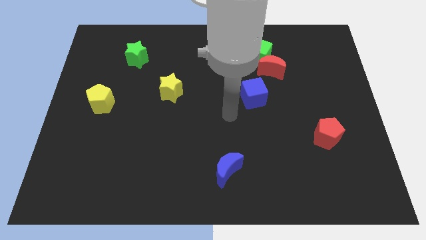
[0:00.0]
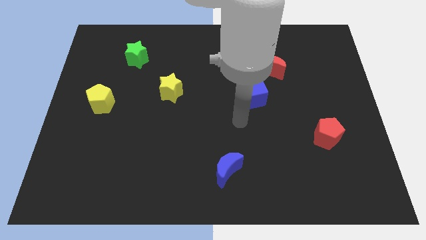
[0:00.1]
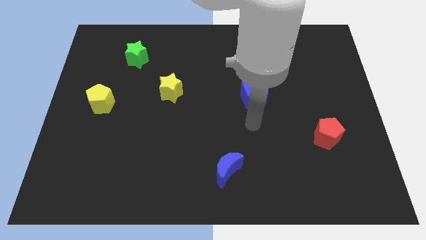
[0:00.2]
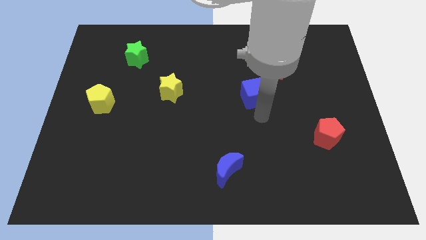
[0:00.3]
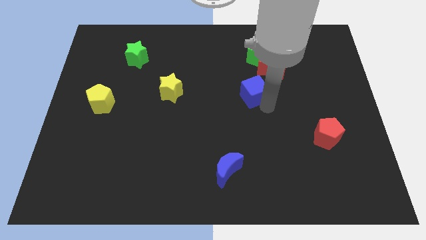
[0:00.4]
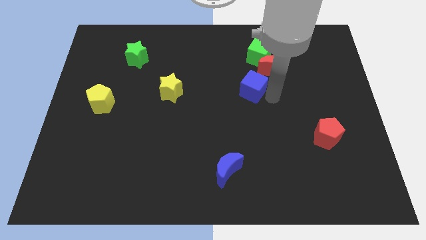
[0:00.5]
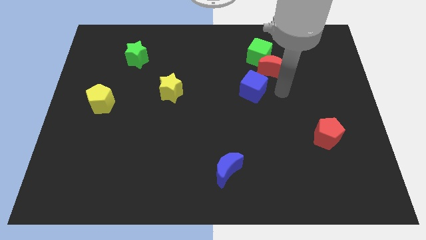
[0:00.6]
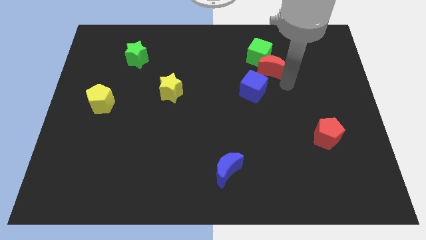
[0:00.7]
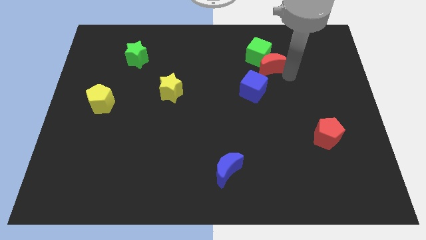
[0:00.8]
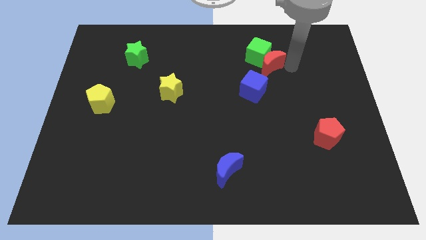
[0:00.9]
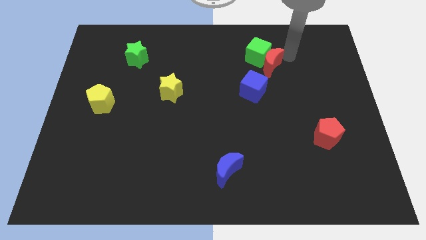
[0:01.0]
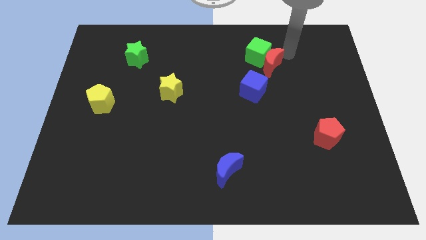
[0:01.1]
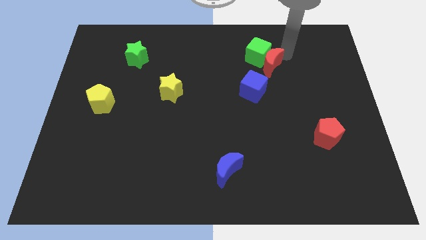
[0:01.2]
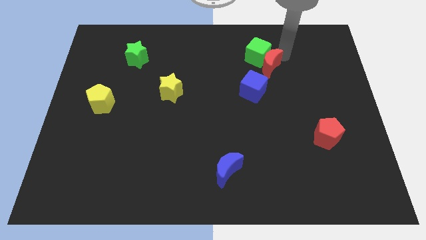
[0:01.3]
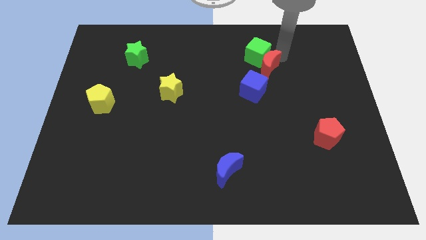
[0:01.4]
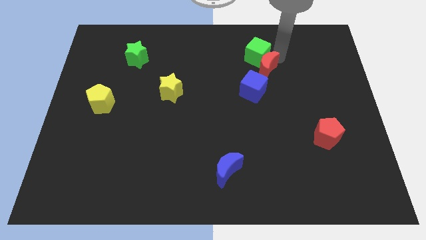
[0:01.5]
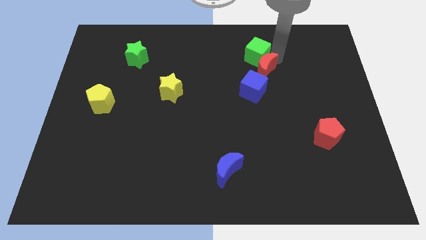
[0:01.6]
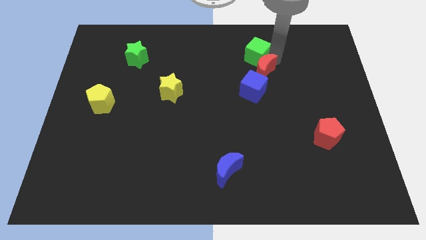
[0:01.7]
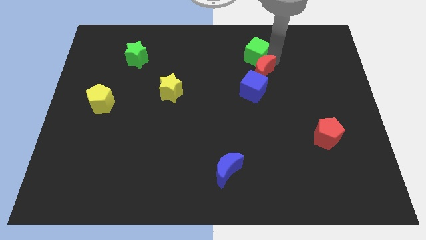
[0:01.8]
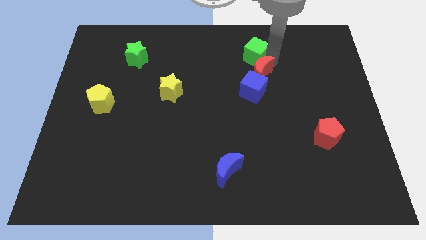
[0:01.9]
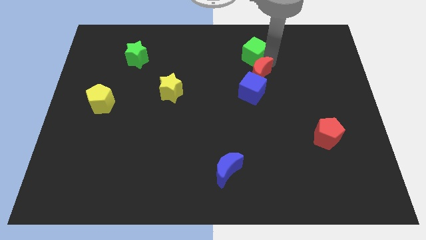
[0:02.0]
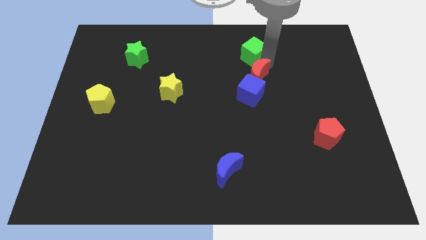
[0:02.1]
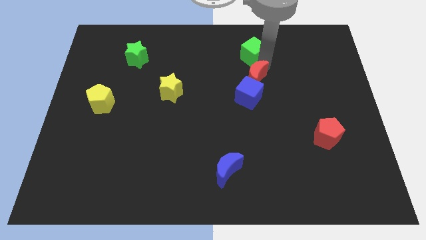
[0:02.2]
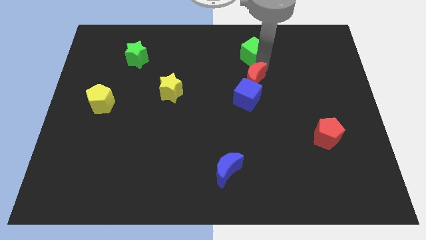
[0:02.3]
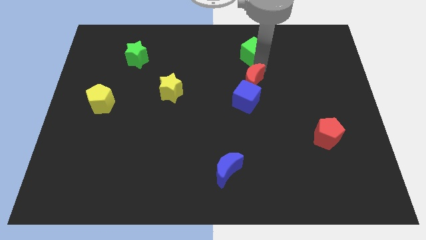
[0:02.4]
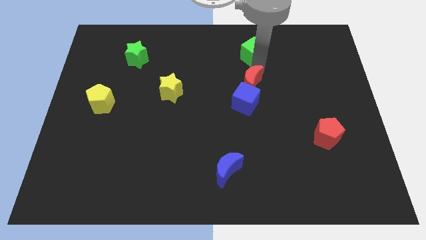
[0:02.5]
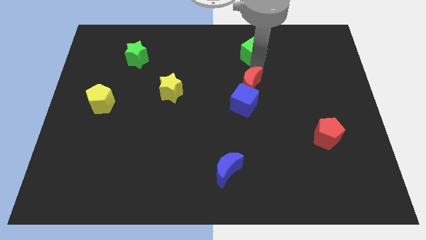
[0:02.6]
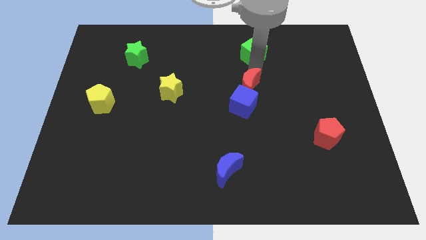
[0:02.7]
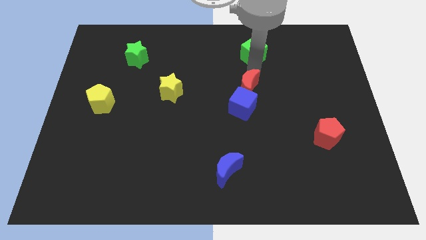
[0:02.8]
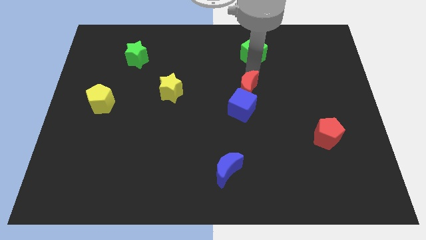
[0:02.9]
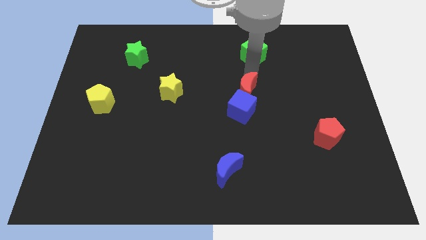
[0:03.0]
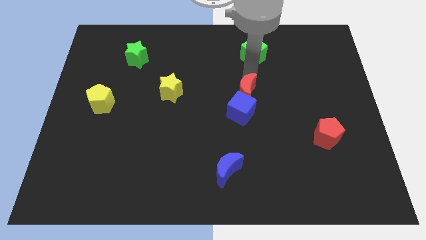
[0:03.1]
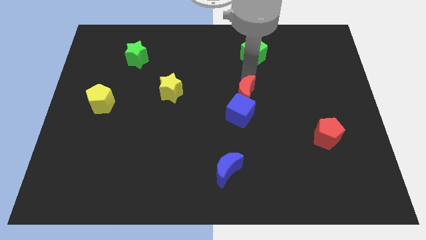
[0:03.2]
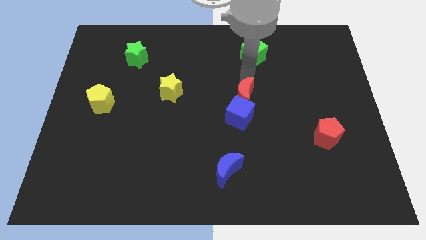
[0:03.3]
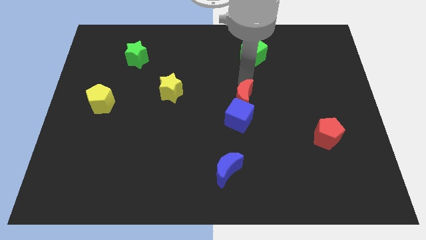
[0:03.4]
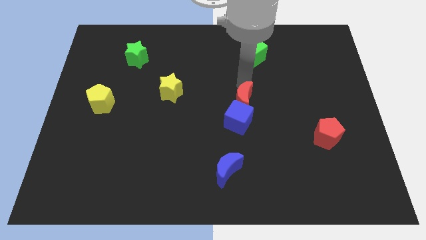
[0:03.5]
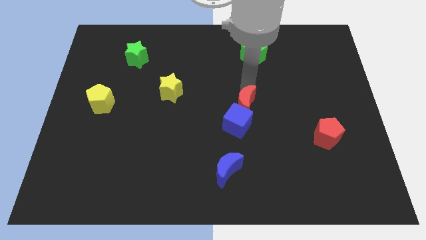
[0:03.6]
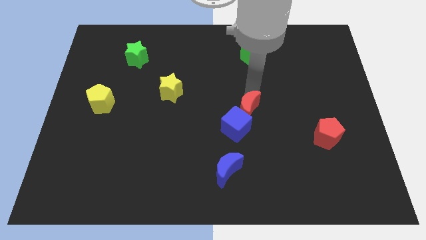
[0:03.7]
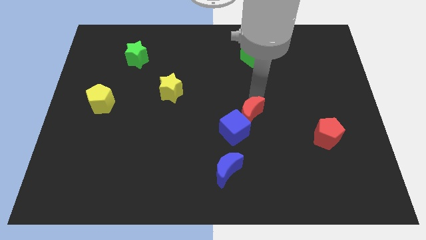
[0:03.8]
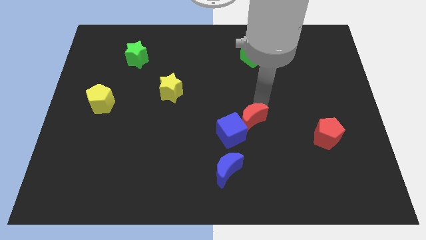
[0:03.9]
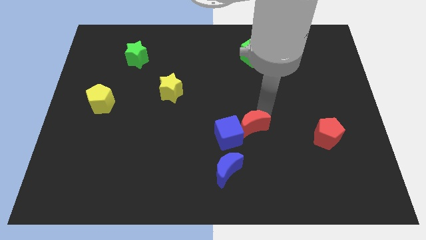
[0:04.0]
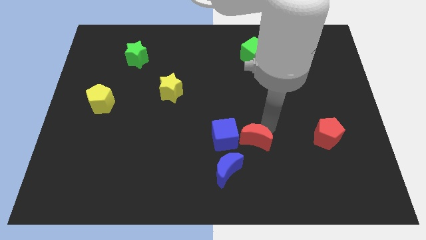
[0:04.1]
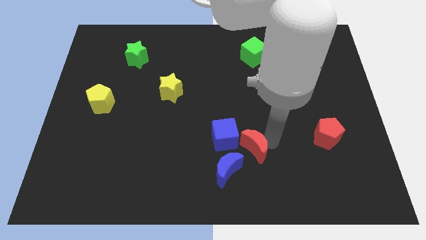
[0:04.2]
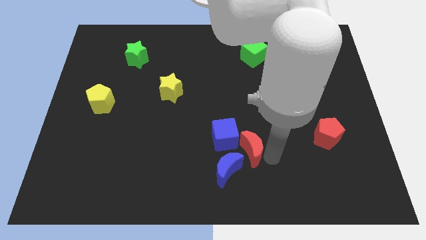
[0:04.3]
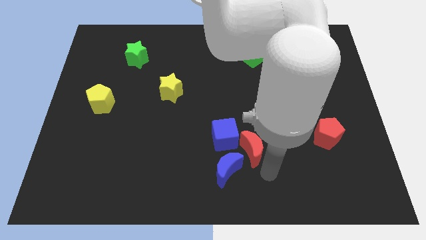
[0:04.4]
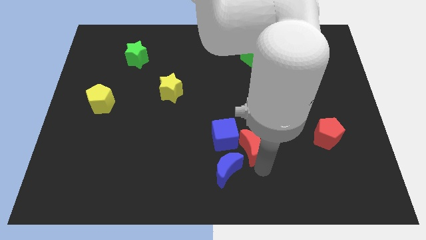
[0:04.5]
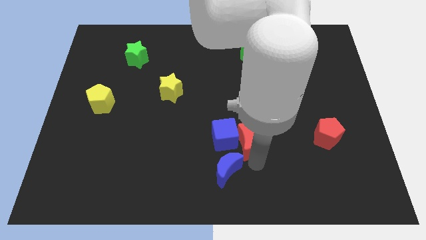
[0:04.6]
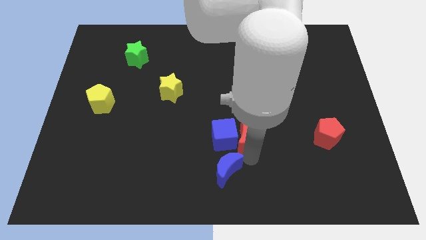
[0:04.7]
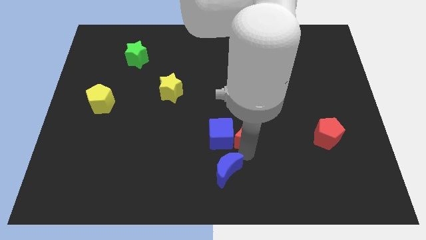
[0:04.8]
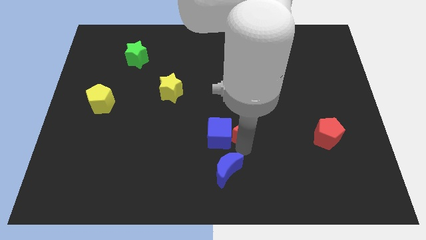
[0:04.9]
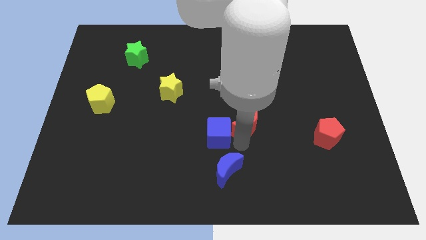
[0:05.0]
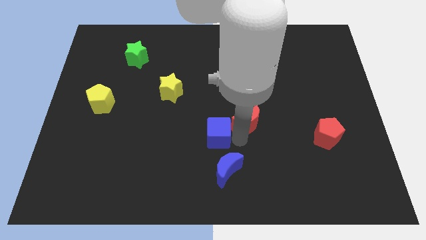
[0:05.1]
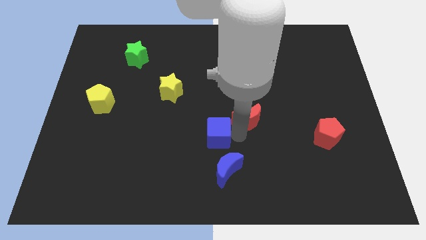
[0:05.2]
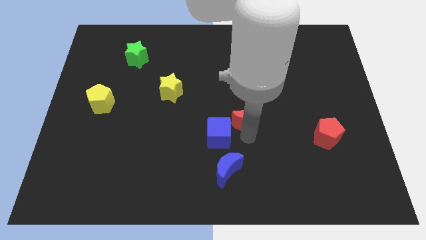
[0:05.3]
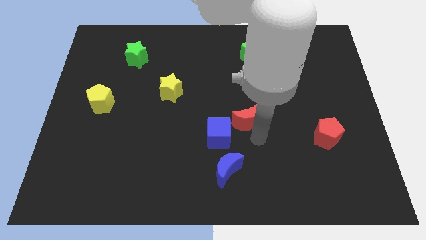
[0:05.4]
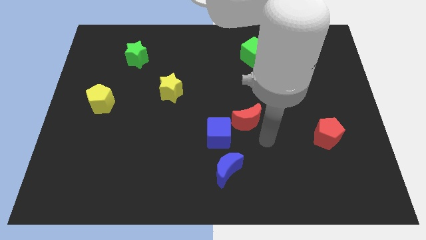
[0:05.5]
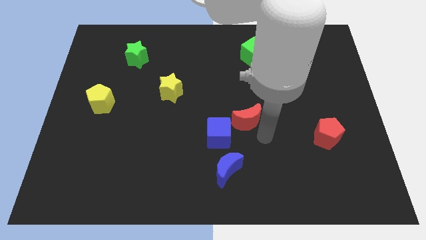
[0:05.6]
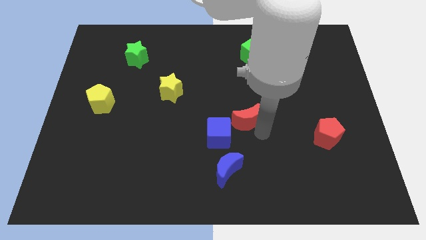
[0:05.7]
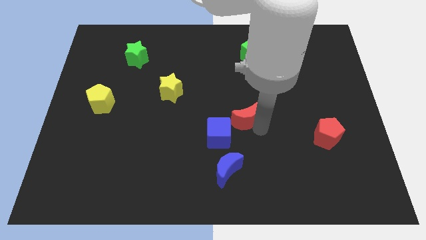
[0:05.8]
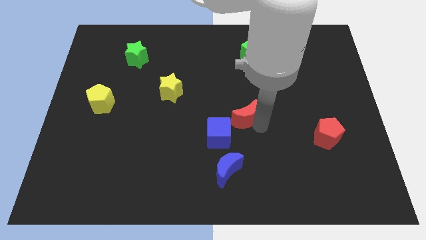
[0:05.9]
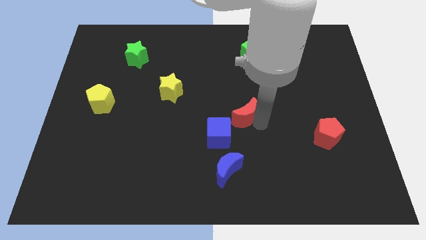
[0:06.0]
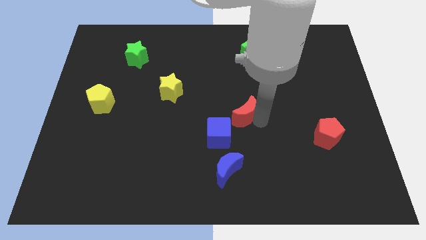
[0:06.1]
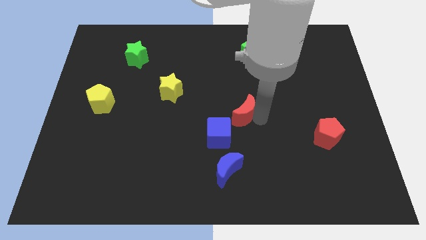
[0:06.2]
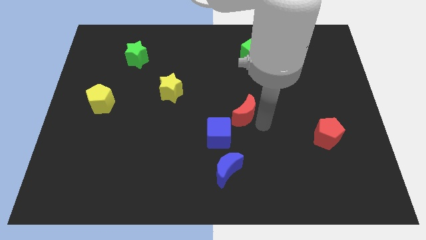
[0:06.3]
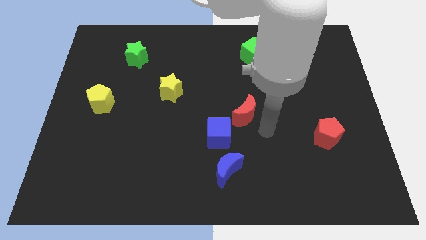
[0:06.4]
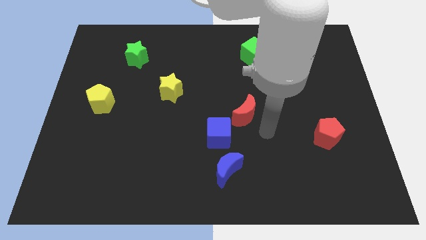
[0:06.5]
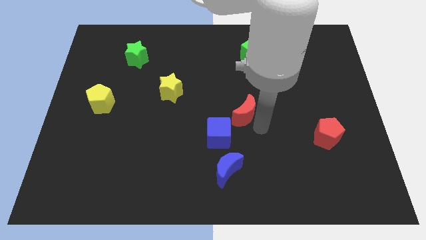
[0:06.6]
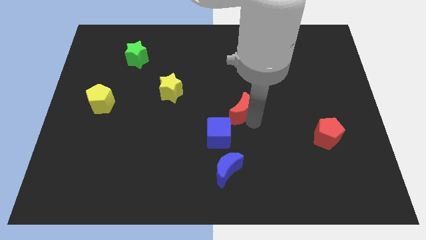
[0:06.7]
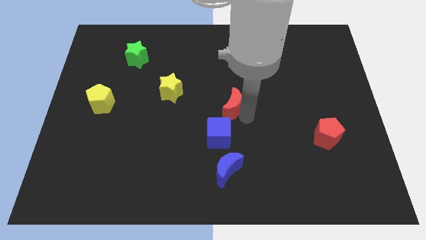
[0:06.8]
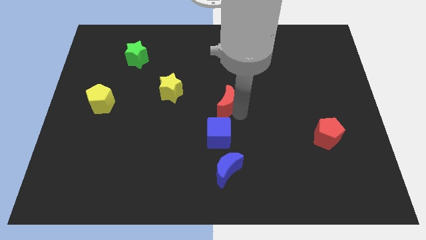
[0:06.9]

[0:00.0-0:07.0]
move the red moon to the right side of the yellow star
